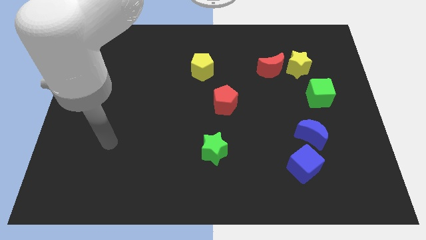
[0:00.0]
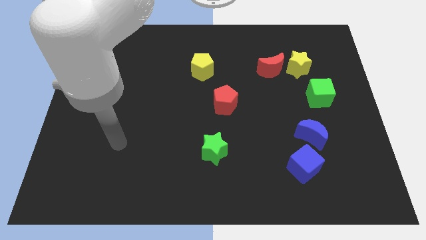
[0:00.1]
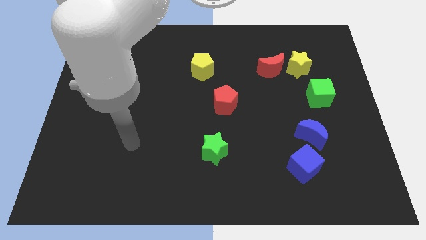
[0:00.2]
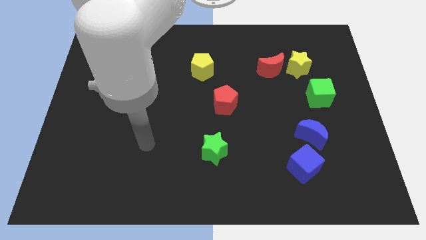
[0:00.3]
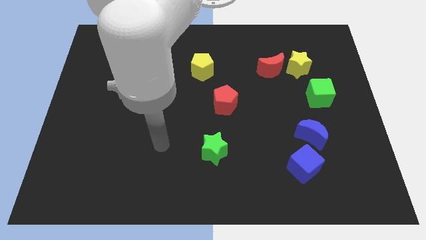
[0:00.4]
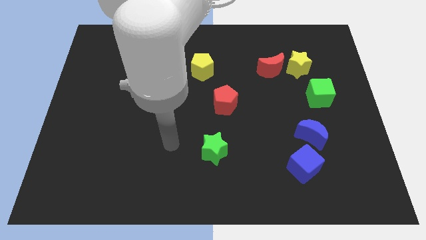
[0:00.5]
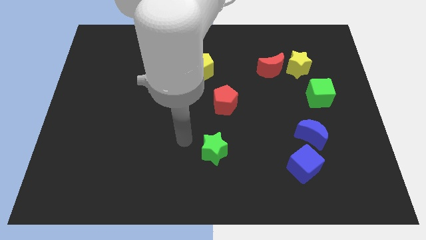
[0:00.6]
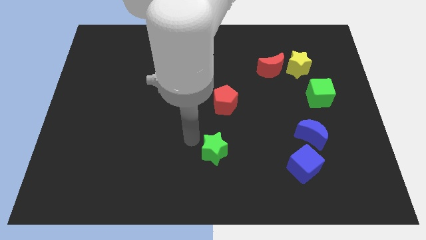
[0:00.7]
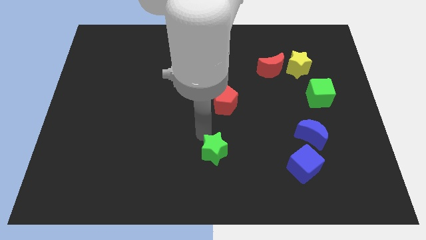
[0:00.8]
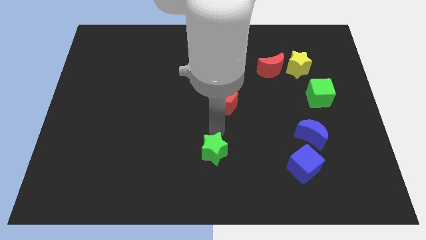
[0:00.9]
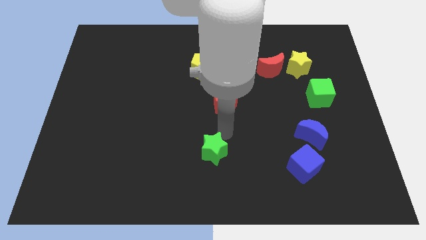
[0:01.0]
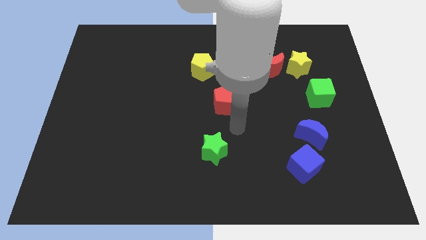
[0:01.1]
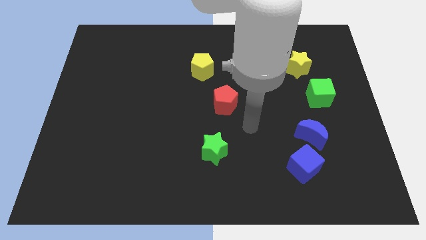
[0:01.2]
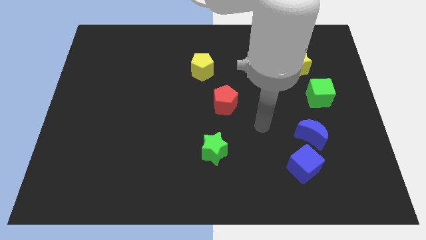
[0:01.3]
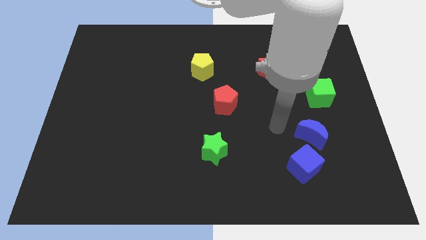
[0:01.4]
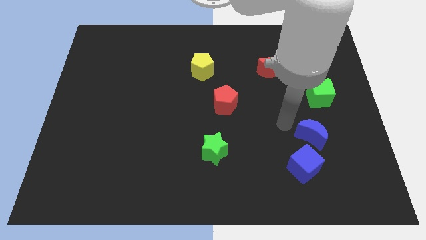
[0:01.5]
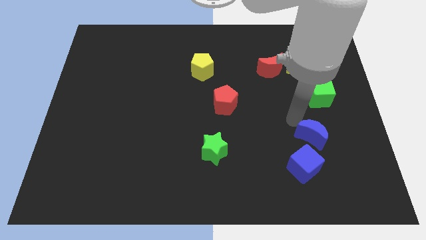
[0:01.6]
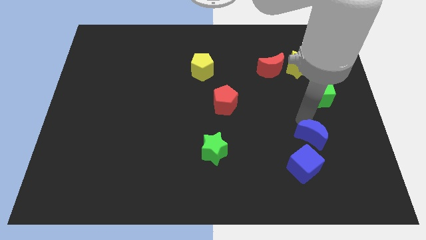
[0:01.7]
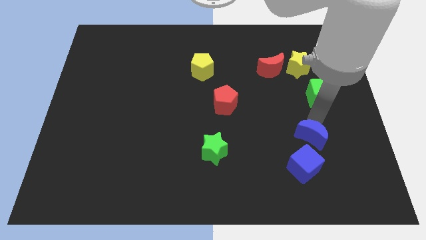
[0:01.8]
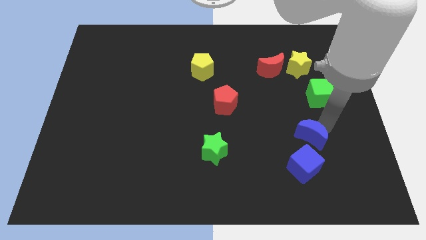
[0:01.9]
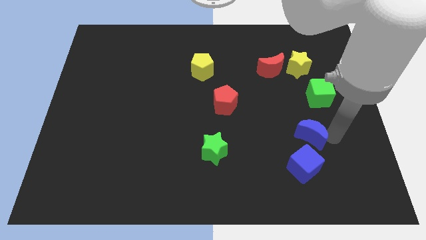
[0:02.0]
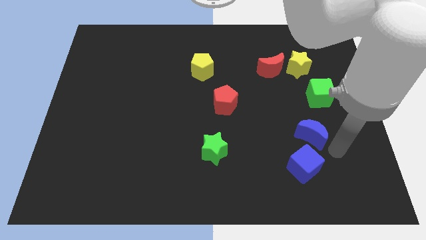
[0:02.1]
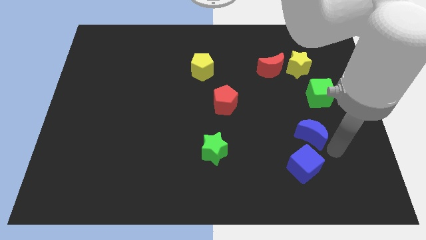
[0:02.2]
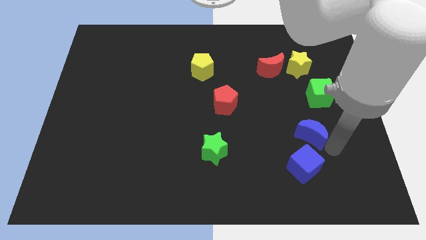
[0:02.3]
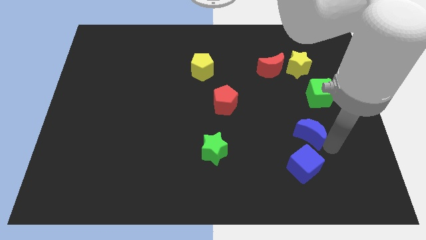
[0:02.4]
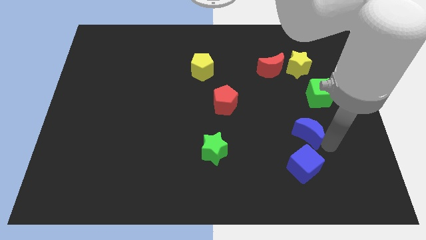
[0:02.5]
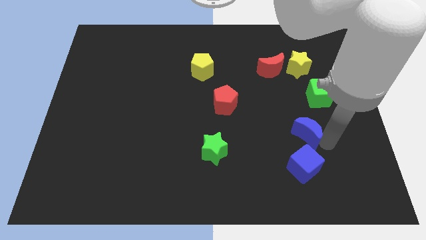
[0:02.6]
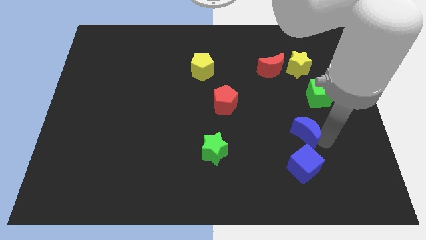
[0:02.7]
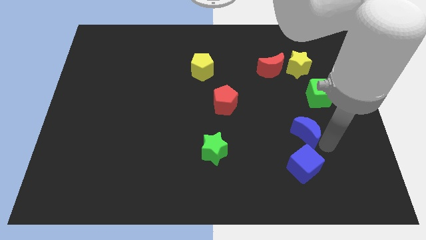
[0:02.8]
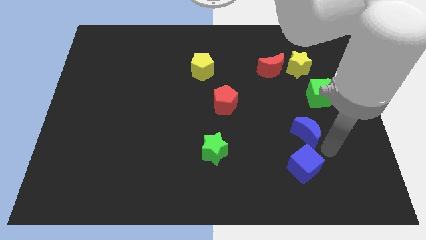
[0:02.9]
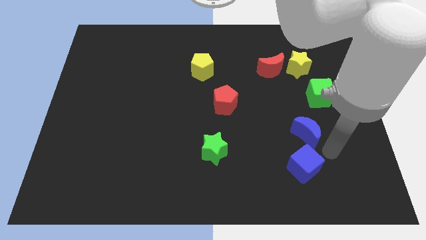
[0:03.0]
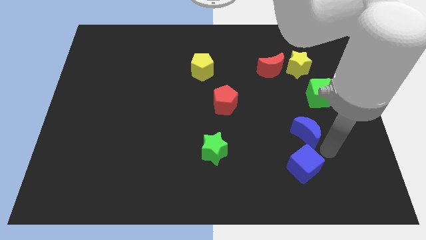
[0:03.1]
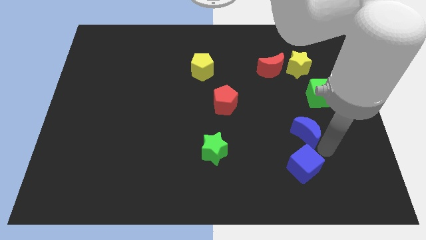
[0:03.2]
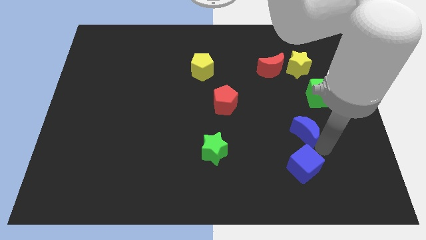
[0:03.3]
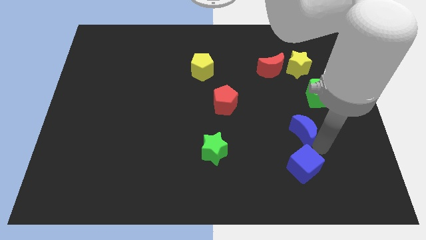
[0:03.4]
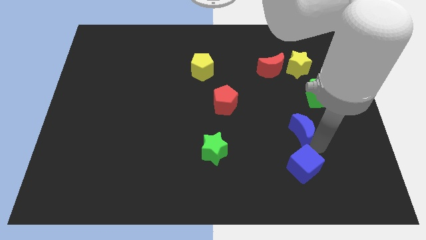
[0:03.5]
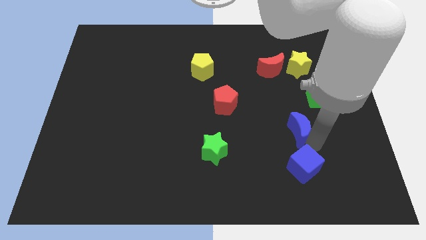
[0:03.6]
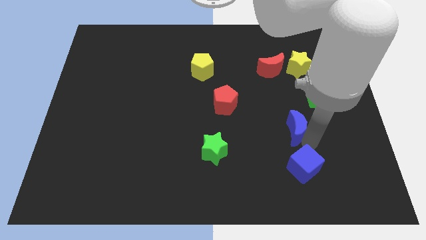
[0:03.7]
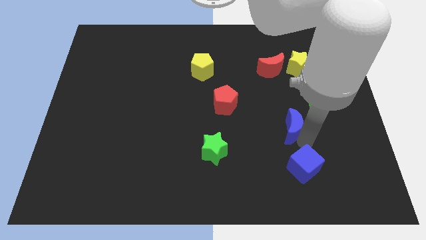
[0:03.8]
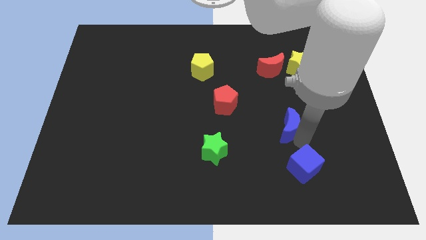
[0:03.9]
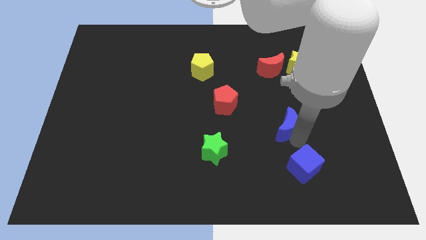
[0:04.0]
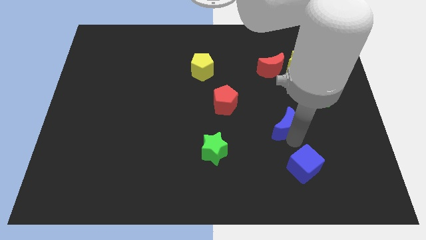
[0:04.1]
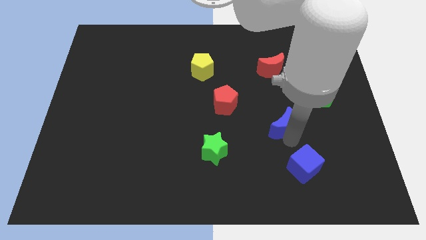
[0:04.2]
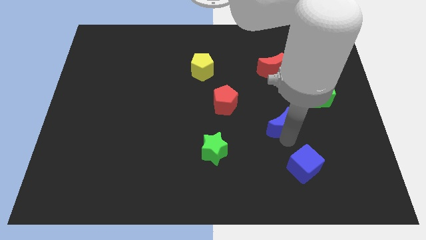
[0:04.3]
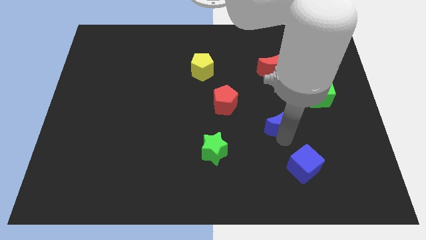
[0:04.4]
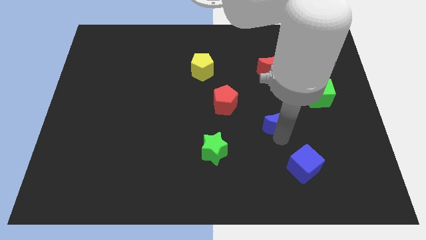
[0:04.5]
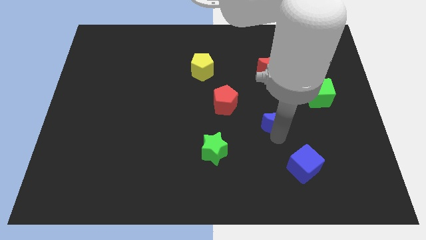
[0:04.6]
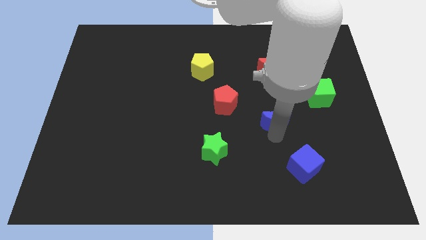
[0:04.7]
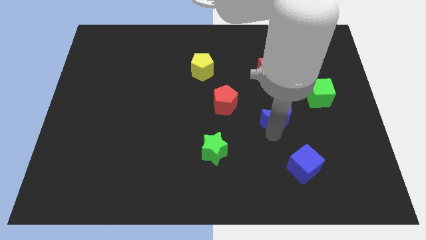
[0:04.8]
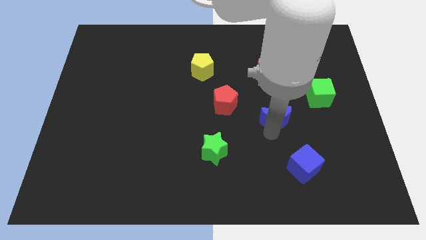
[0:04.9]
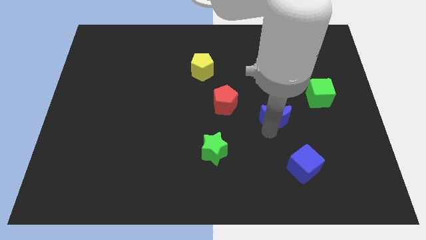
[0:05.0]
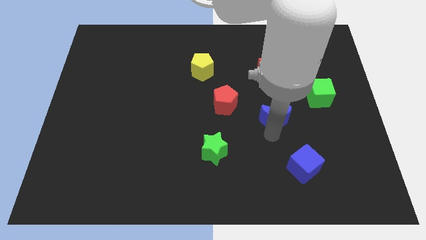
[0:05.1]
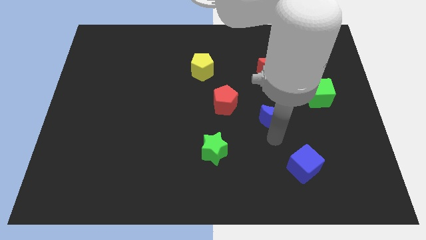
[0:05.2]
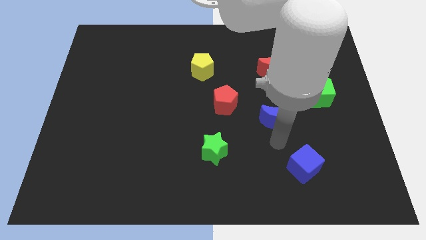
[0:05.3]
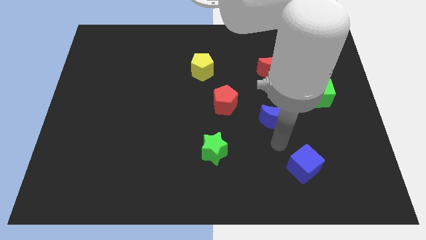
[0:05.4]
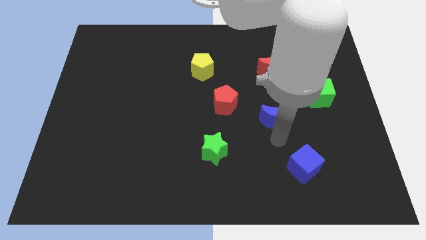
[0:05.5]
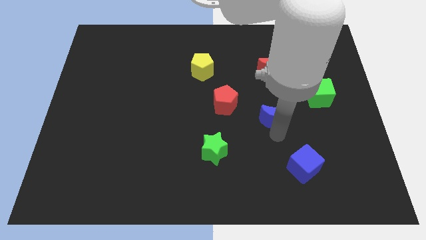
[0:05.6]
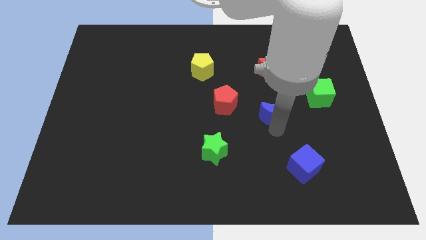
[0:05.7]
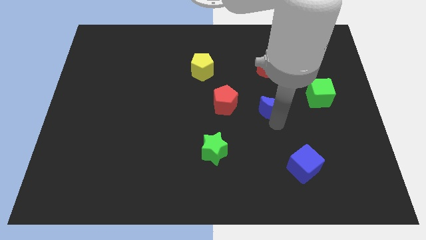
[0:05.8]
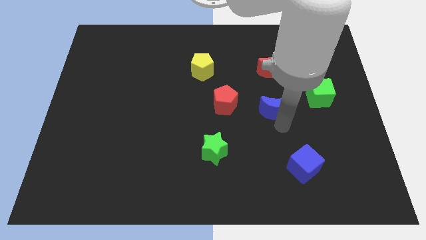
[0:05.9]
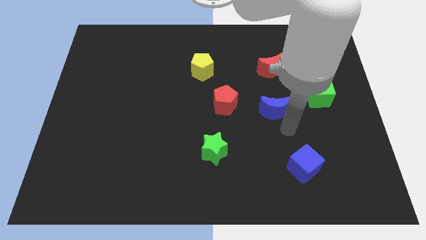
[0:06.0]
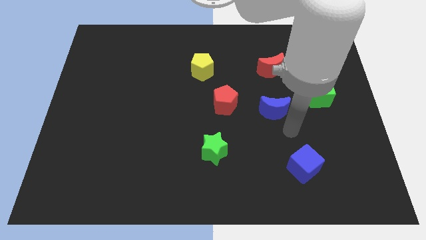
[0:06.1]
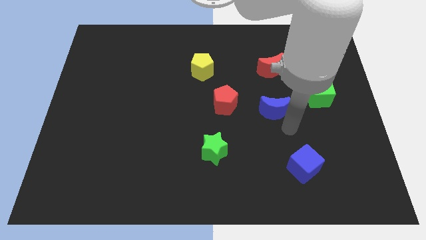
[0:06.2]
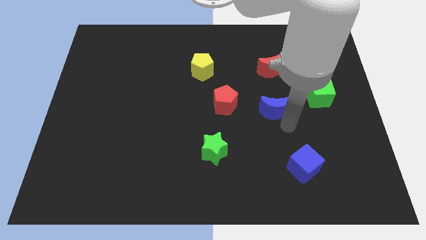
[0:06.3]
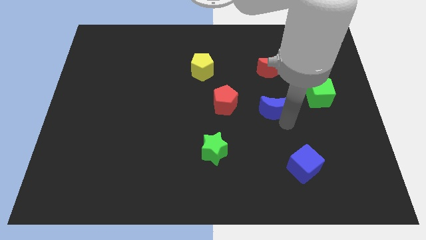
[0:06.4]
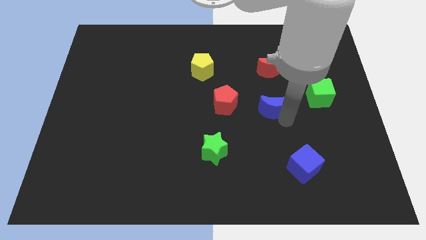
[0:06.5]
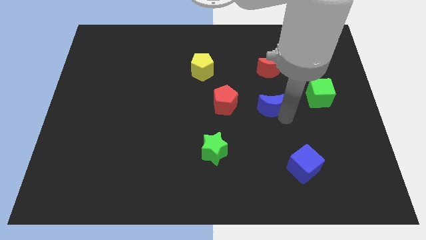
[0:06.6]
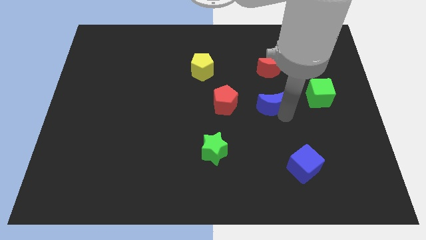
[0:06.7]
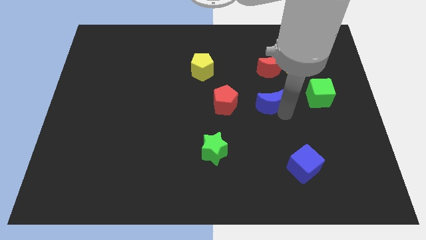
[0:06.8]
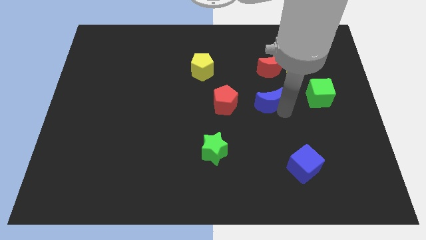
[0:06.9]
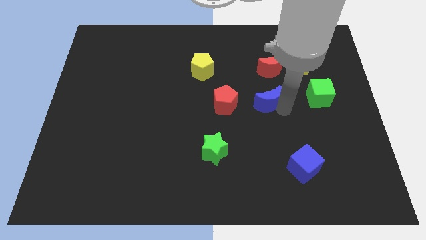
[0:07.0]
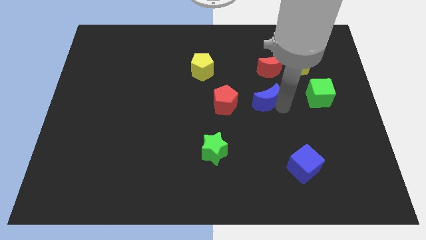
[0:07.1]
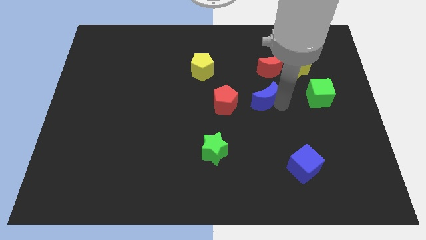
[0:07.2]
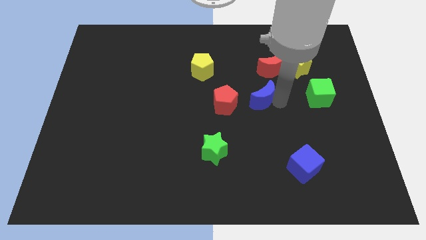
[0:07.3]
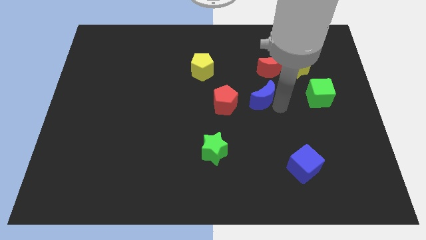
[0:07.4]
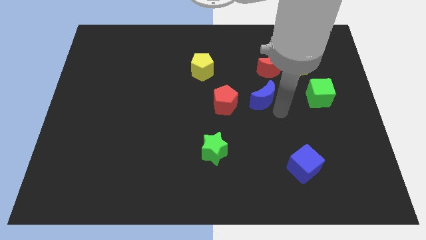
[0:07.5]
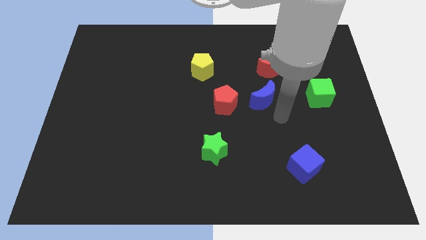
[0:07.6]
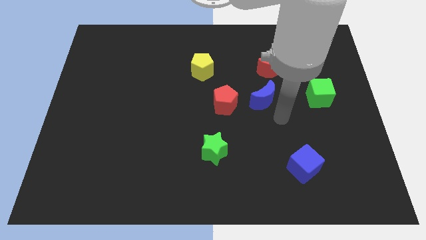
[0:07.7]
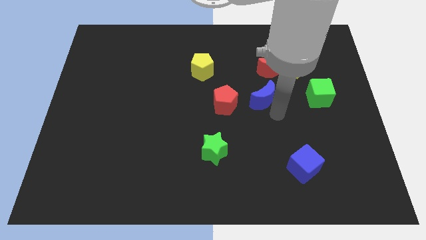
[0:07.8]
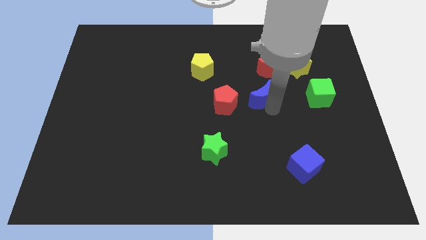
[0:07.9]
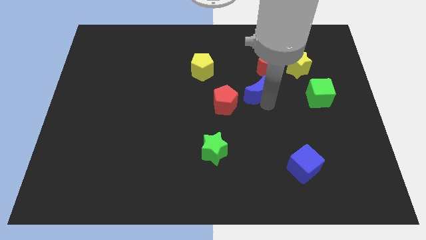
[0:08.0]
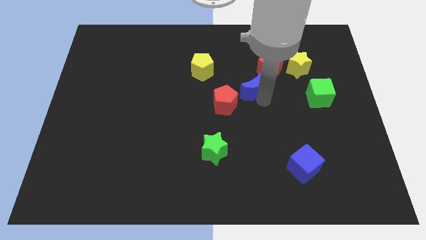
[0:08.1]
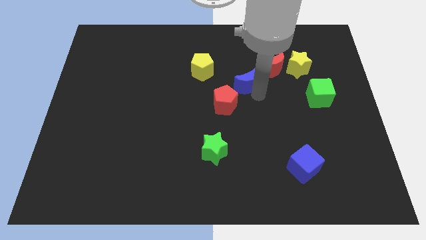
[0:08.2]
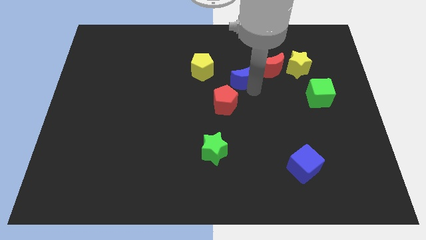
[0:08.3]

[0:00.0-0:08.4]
put the blue moon just left of the red moon

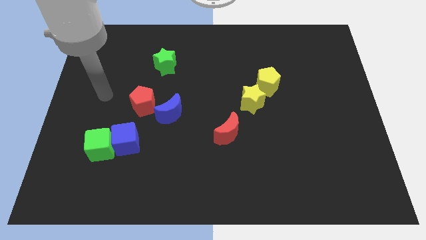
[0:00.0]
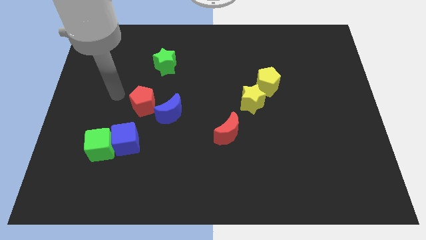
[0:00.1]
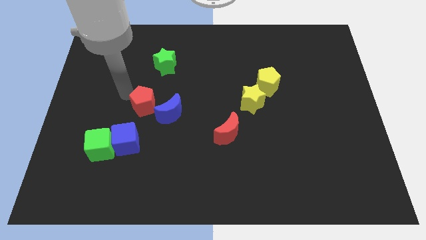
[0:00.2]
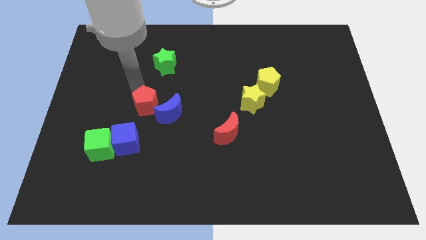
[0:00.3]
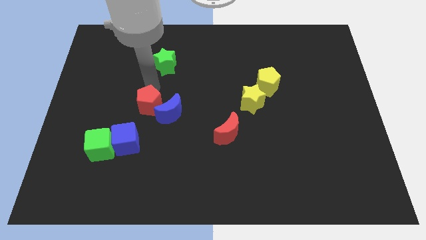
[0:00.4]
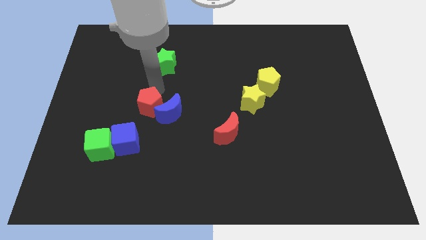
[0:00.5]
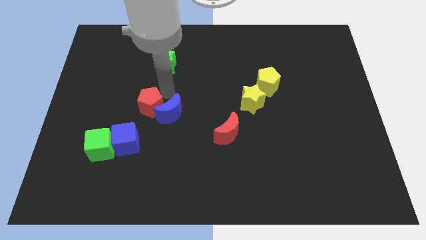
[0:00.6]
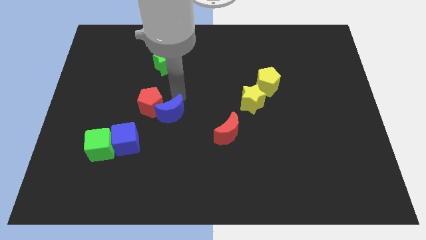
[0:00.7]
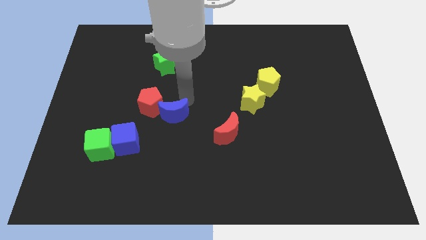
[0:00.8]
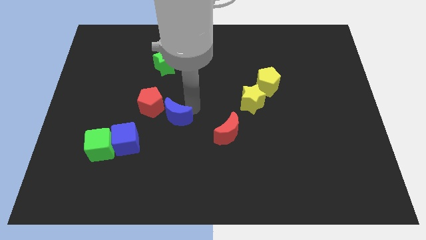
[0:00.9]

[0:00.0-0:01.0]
push the red moon to the right of the blue moon
